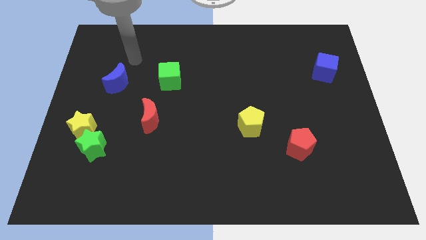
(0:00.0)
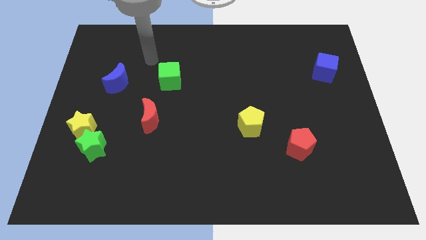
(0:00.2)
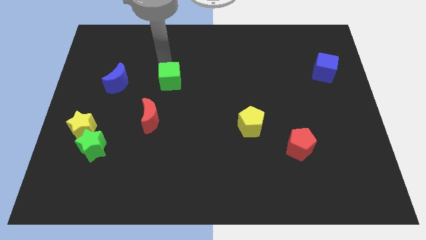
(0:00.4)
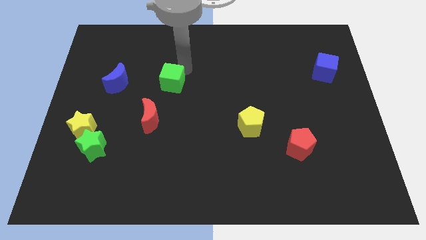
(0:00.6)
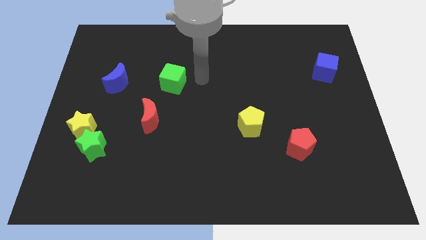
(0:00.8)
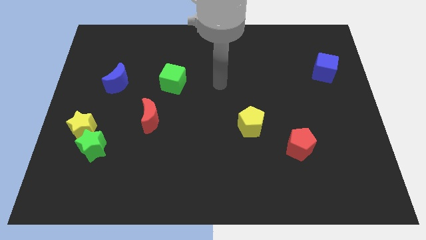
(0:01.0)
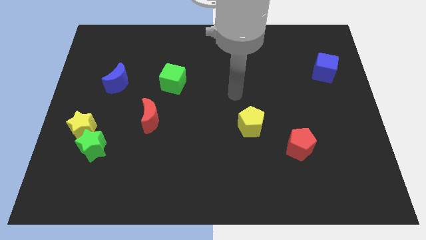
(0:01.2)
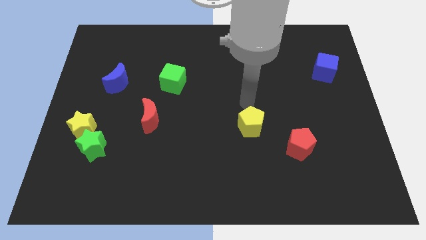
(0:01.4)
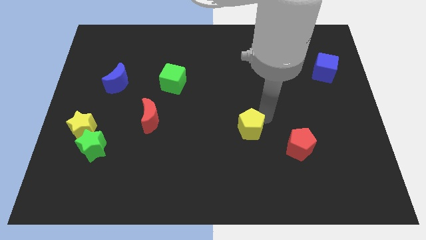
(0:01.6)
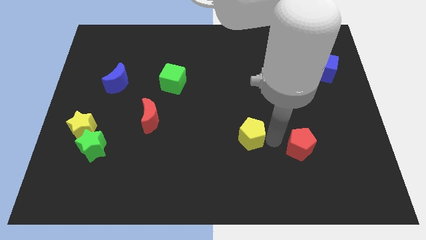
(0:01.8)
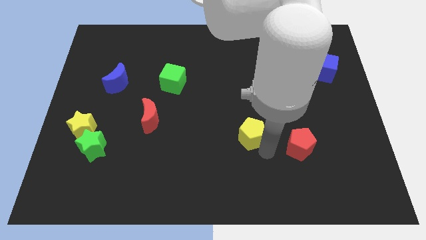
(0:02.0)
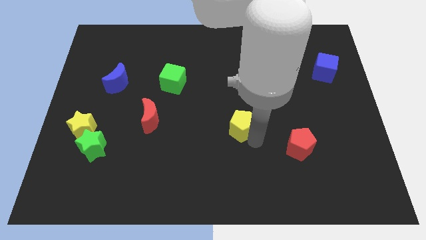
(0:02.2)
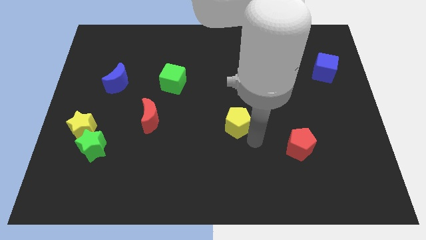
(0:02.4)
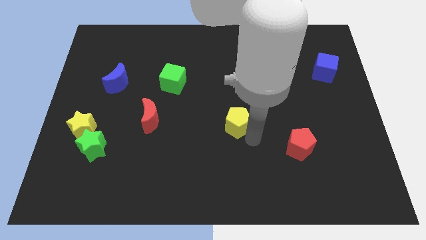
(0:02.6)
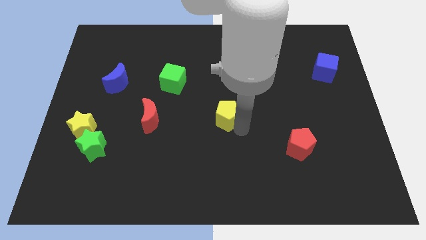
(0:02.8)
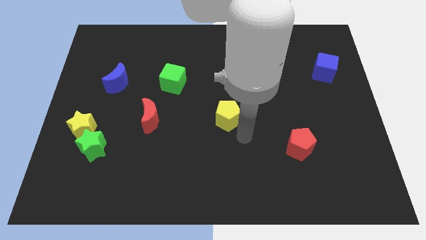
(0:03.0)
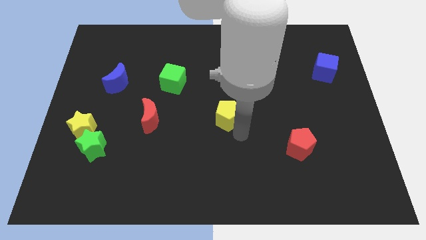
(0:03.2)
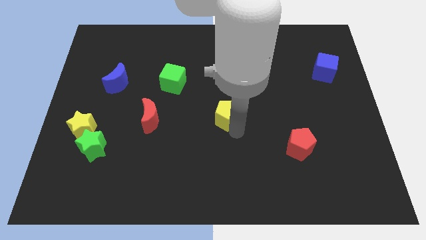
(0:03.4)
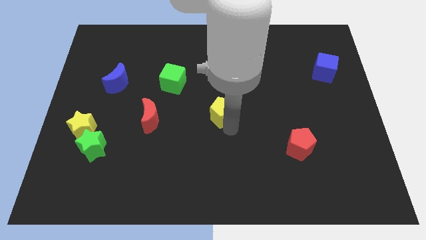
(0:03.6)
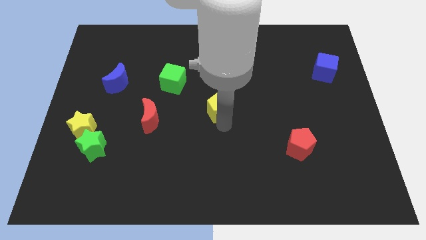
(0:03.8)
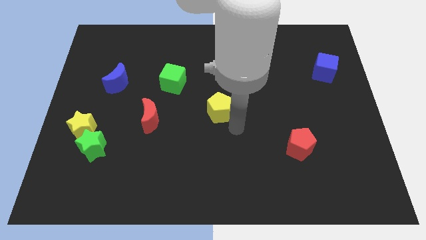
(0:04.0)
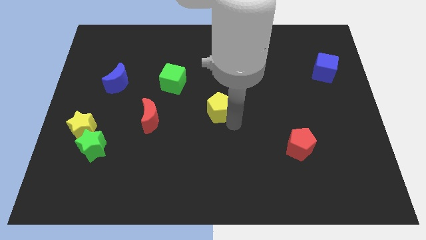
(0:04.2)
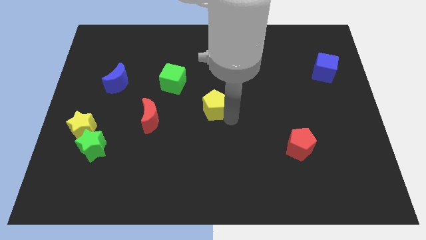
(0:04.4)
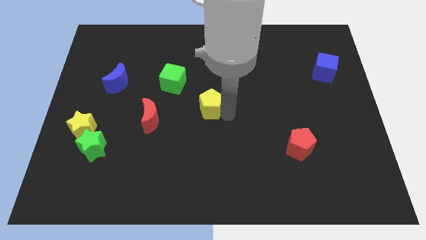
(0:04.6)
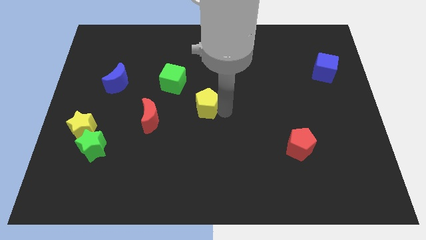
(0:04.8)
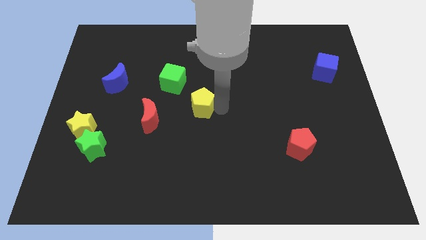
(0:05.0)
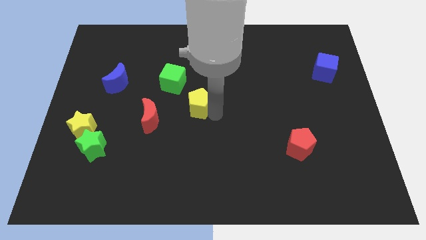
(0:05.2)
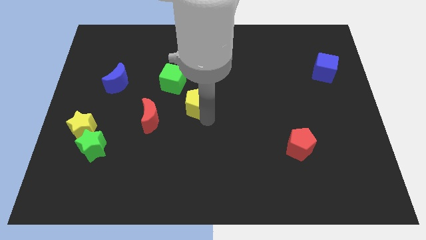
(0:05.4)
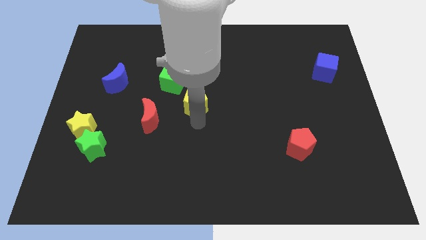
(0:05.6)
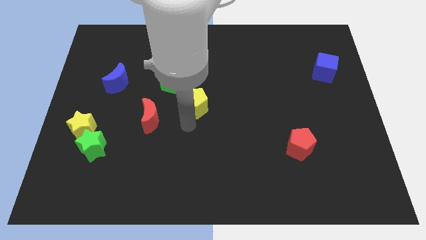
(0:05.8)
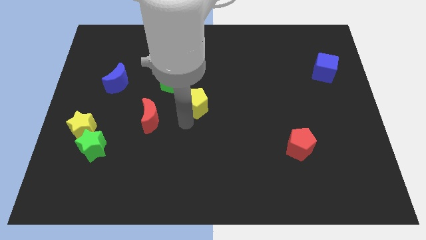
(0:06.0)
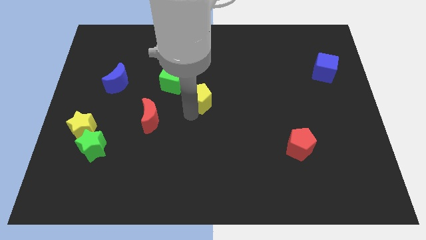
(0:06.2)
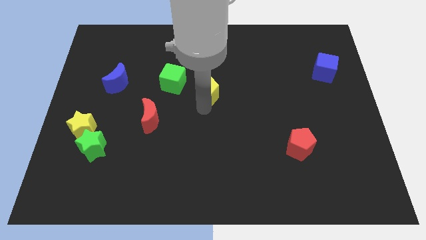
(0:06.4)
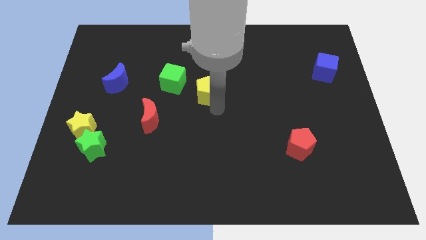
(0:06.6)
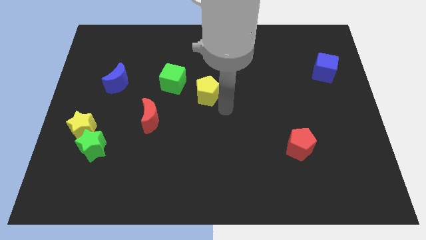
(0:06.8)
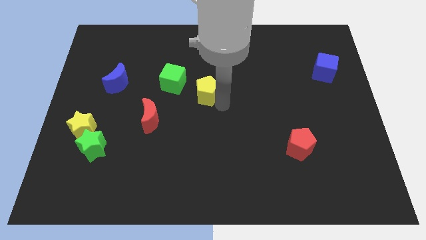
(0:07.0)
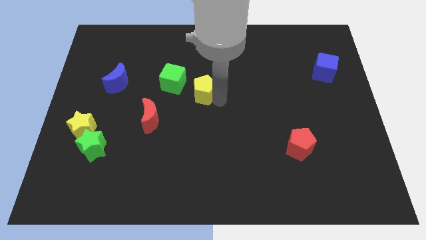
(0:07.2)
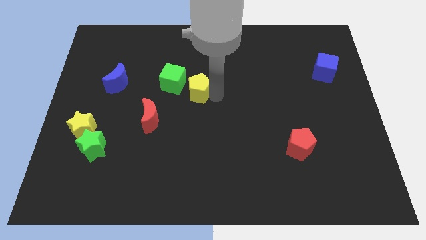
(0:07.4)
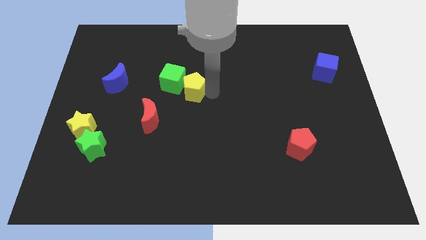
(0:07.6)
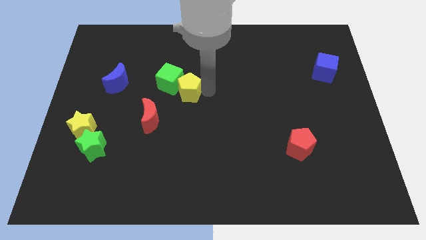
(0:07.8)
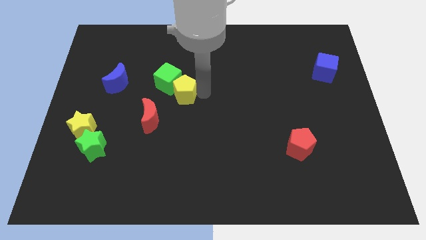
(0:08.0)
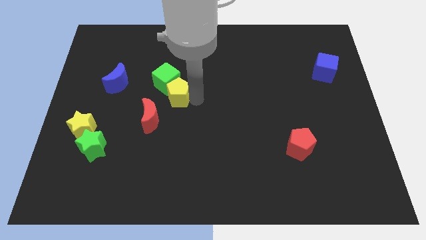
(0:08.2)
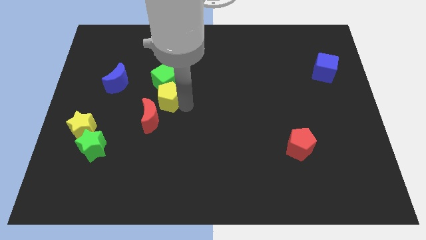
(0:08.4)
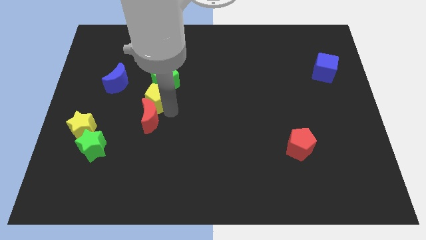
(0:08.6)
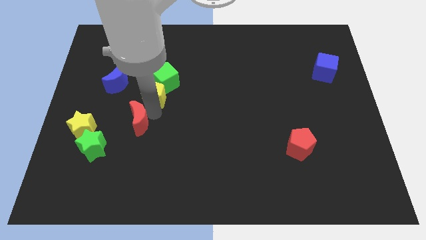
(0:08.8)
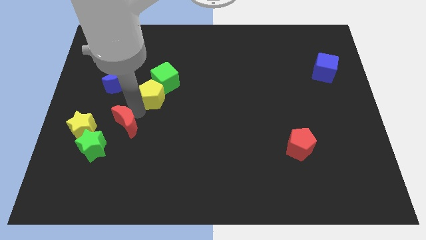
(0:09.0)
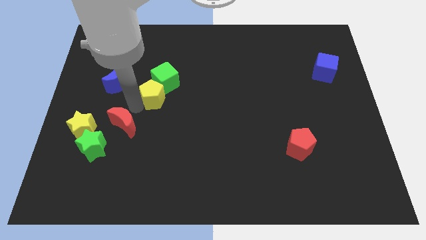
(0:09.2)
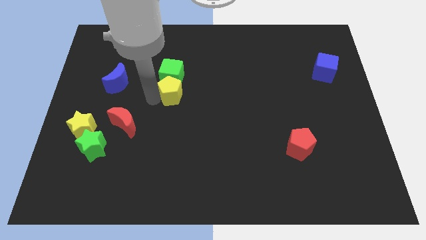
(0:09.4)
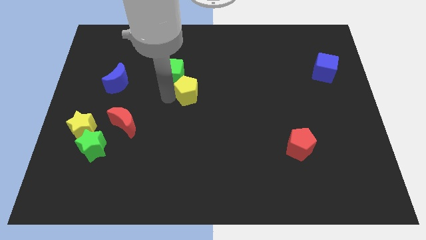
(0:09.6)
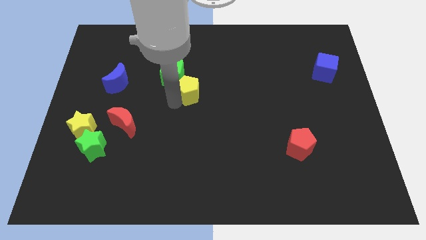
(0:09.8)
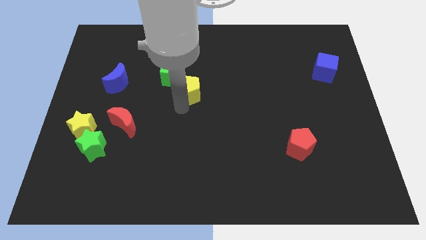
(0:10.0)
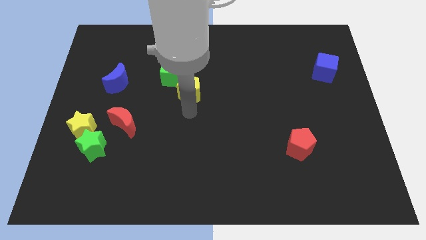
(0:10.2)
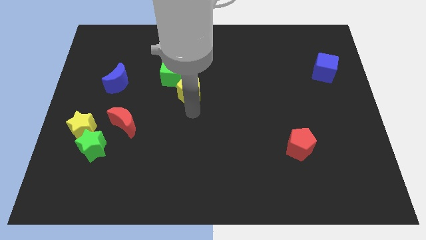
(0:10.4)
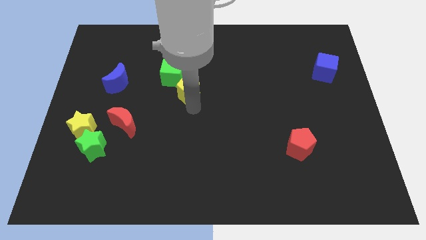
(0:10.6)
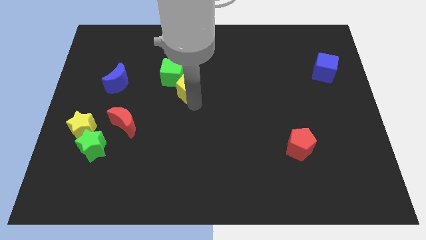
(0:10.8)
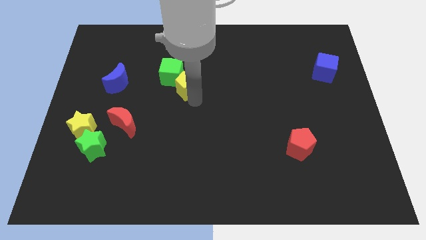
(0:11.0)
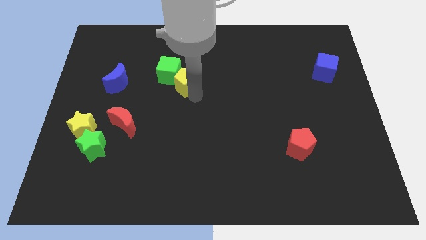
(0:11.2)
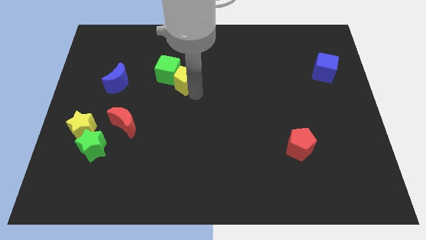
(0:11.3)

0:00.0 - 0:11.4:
slide the yellow pentagon diagonally upwards and to the left

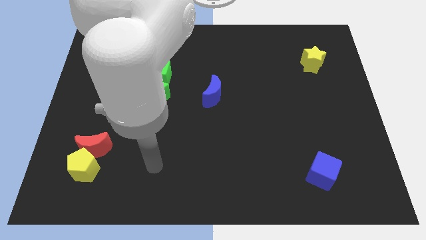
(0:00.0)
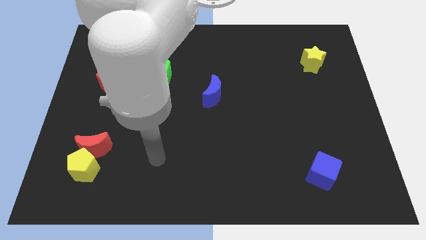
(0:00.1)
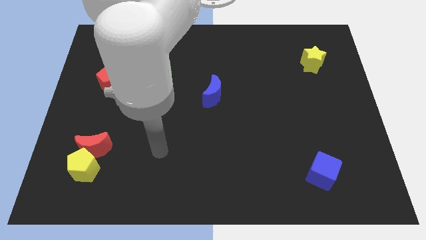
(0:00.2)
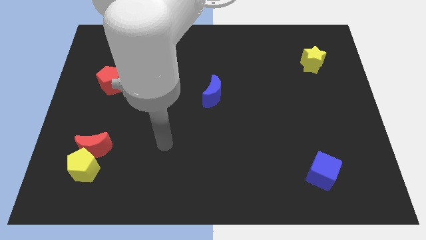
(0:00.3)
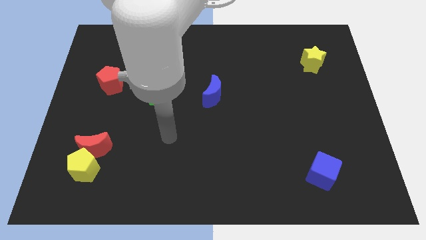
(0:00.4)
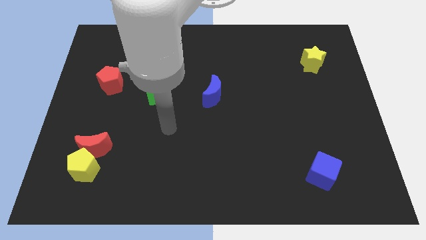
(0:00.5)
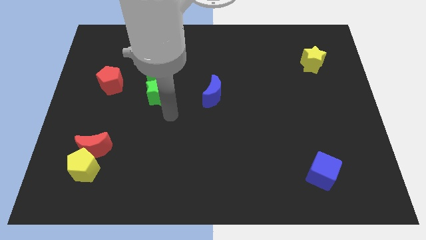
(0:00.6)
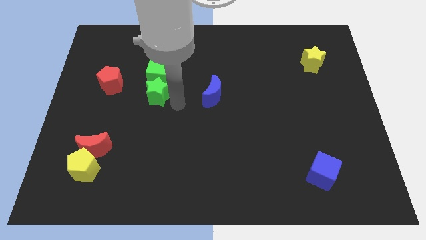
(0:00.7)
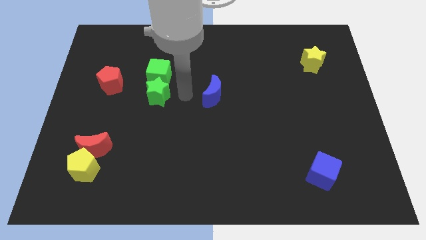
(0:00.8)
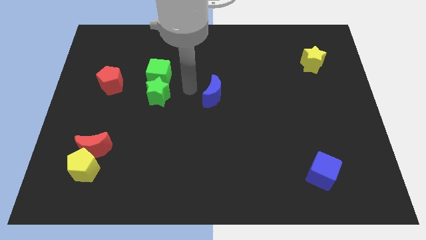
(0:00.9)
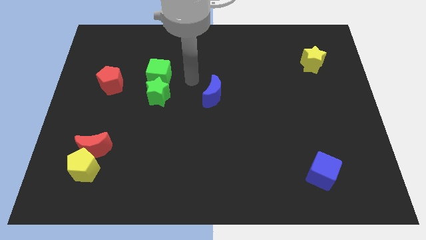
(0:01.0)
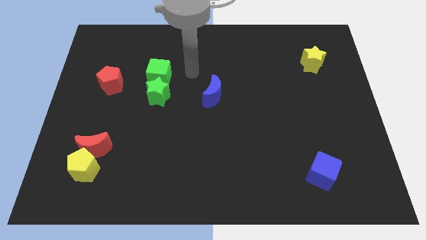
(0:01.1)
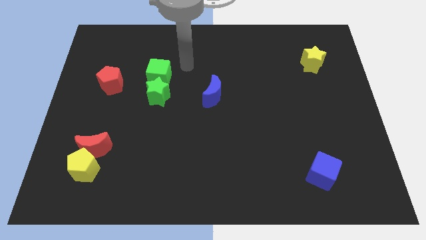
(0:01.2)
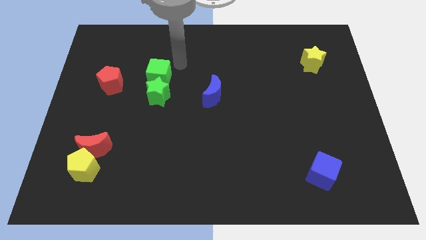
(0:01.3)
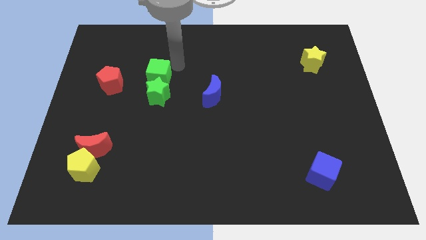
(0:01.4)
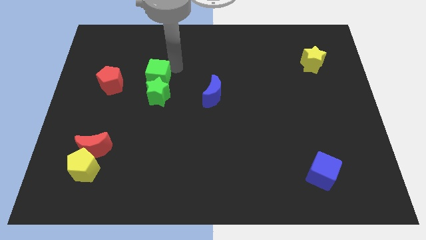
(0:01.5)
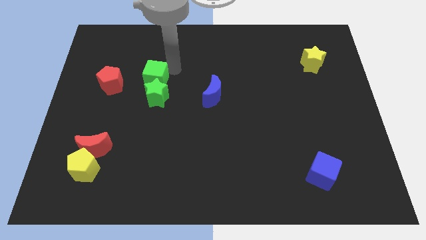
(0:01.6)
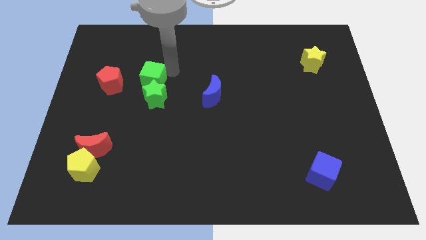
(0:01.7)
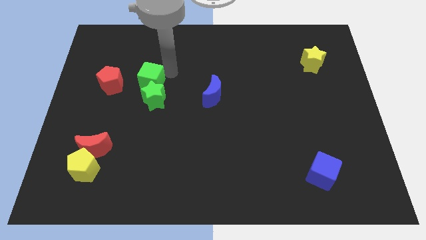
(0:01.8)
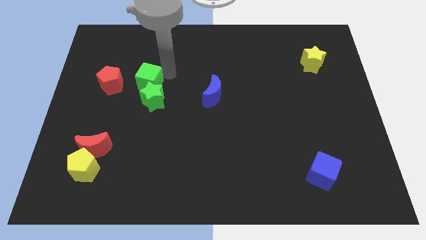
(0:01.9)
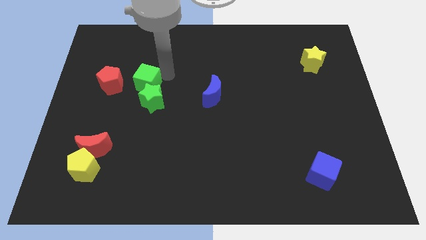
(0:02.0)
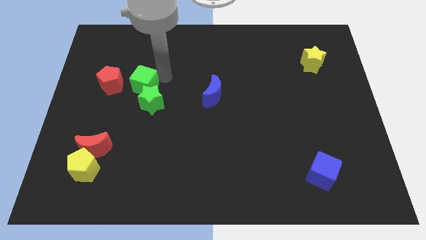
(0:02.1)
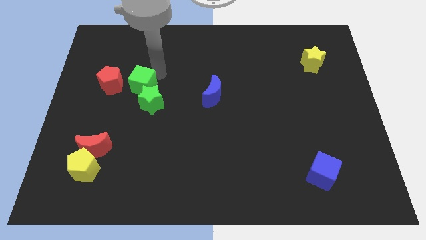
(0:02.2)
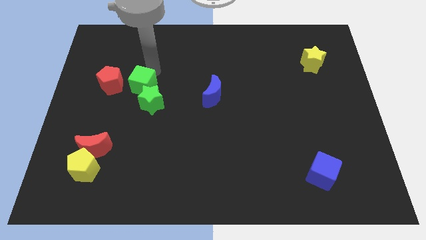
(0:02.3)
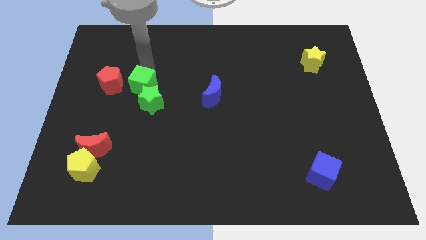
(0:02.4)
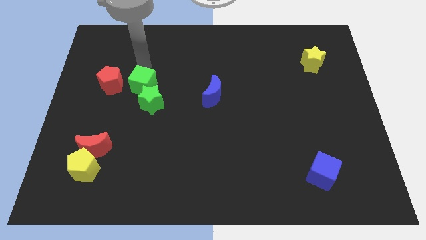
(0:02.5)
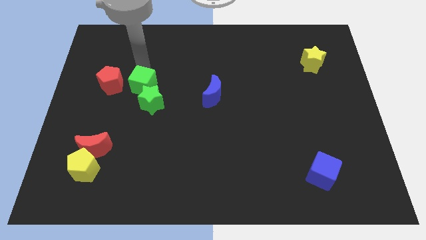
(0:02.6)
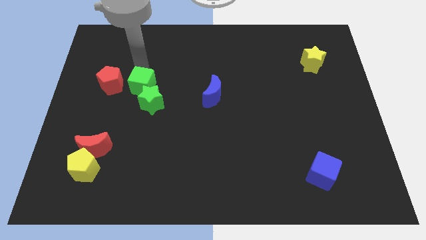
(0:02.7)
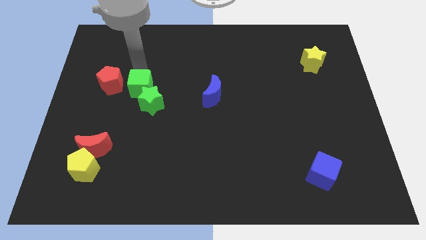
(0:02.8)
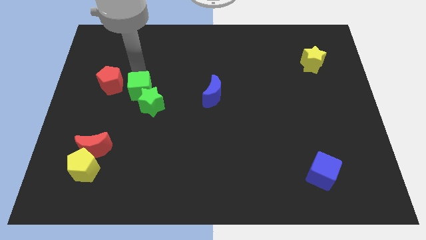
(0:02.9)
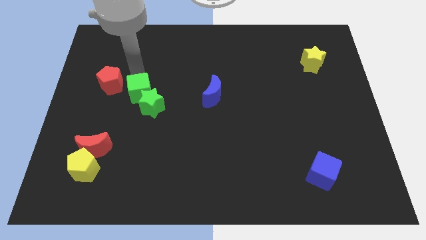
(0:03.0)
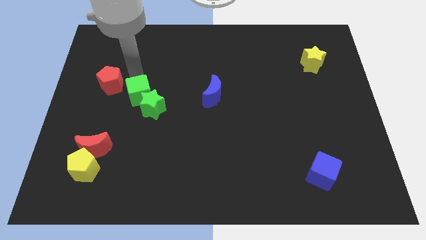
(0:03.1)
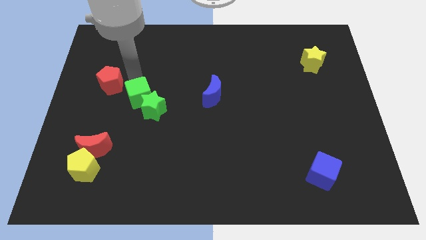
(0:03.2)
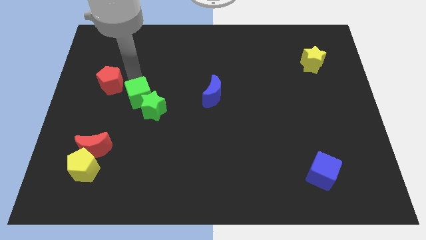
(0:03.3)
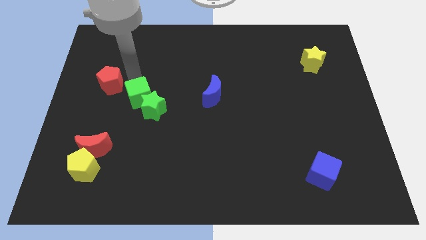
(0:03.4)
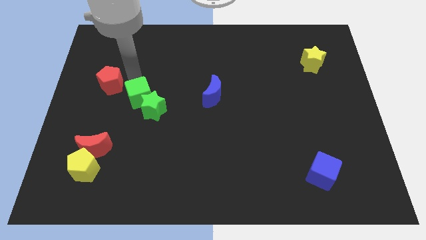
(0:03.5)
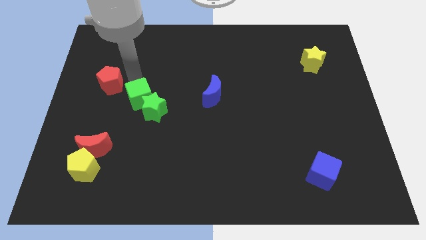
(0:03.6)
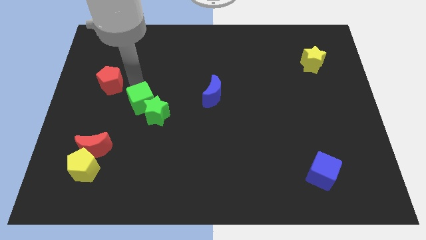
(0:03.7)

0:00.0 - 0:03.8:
slide the green cube down a little
